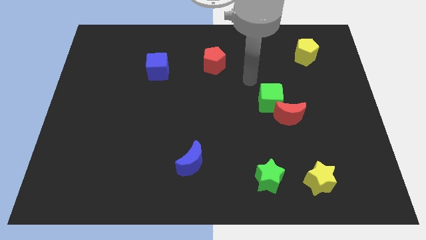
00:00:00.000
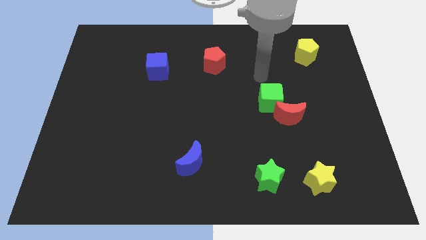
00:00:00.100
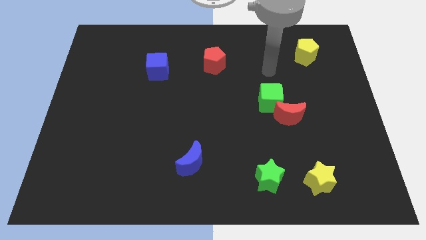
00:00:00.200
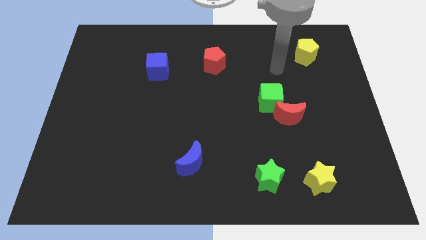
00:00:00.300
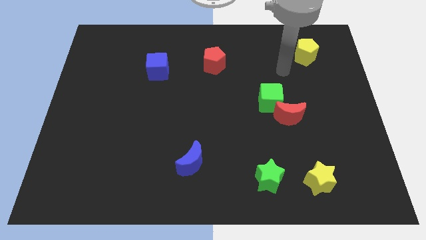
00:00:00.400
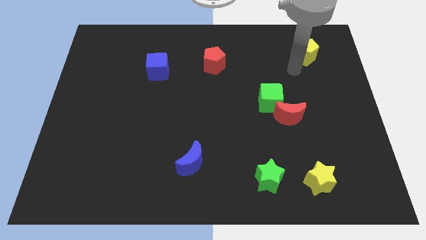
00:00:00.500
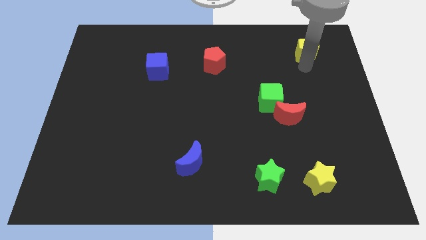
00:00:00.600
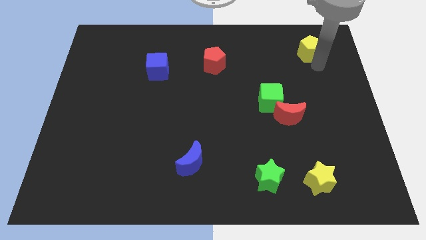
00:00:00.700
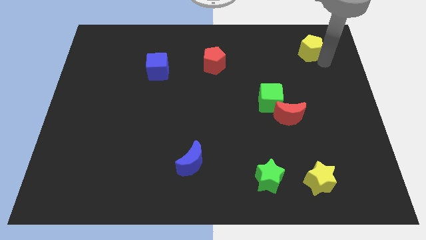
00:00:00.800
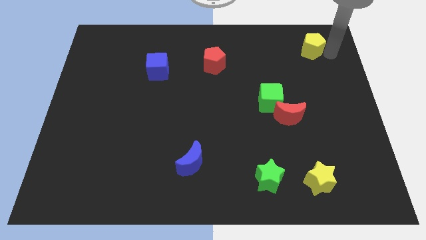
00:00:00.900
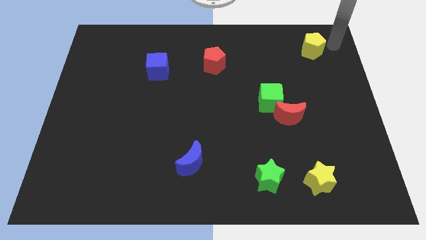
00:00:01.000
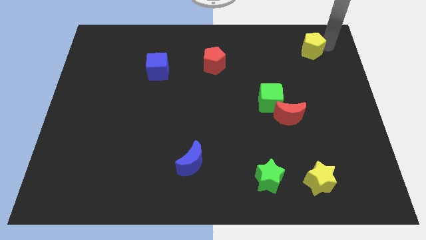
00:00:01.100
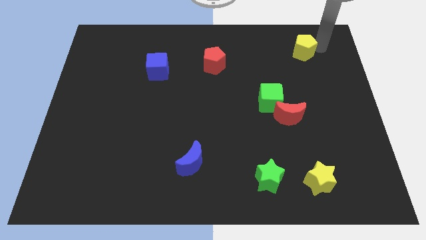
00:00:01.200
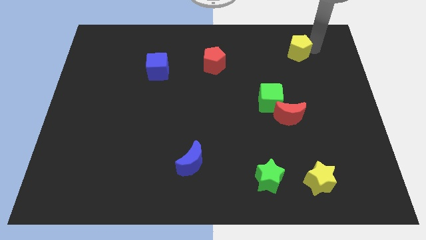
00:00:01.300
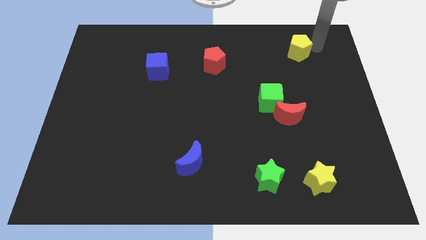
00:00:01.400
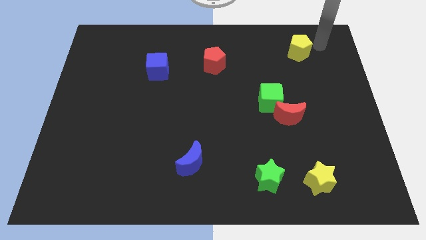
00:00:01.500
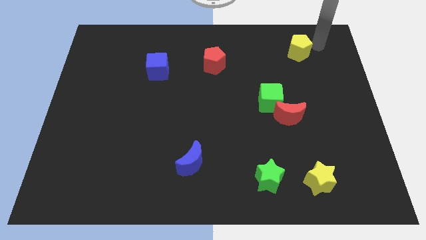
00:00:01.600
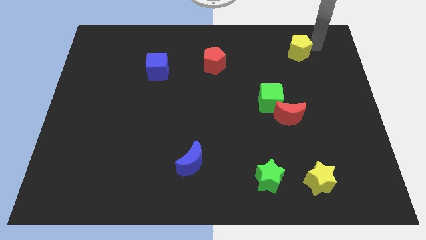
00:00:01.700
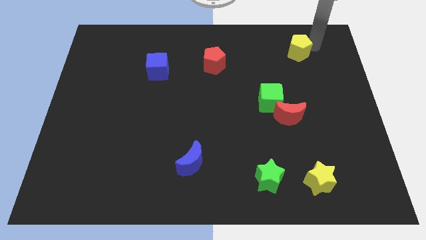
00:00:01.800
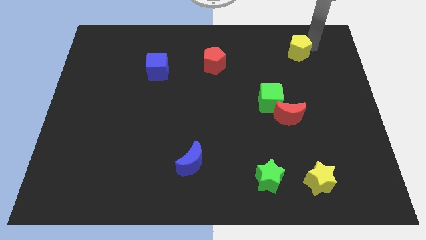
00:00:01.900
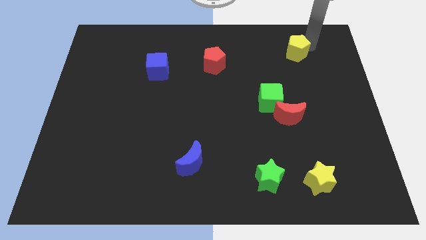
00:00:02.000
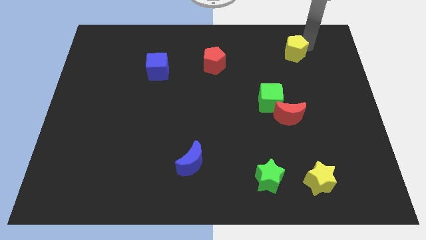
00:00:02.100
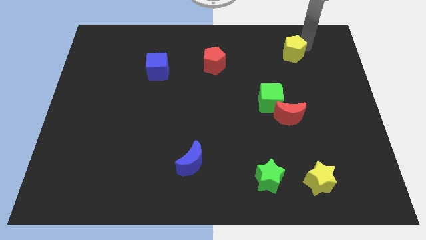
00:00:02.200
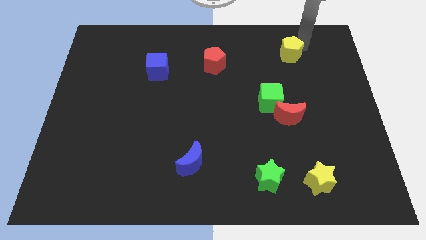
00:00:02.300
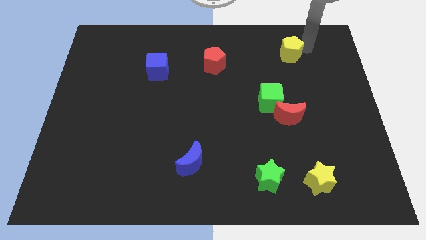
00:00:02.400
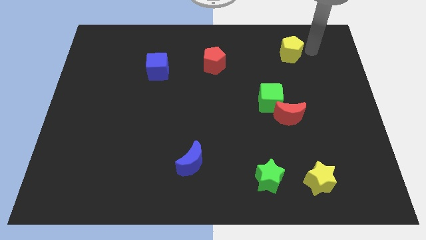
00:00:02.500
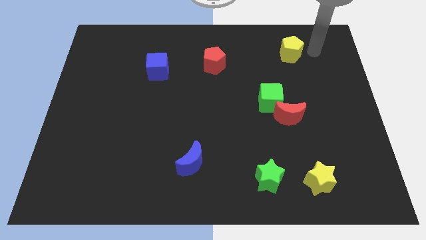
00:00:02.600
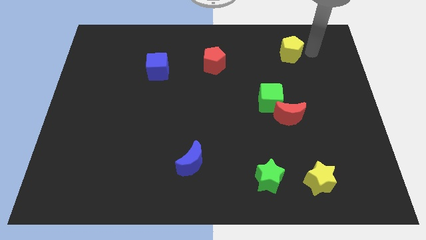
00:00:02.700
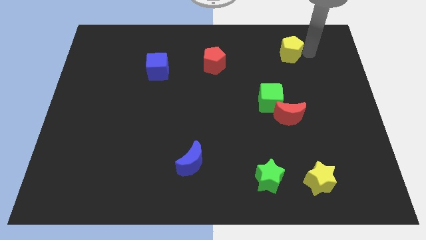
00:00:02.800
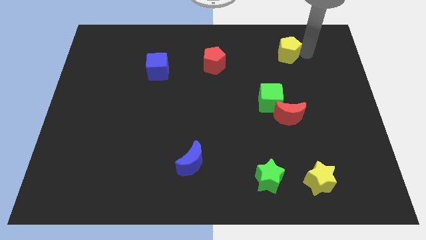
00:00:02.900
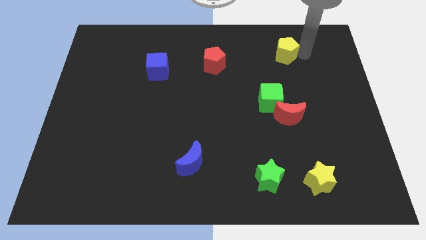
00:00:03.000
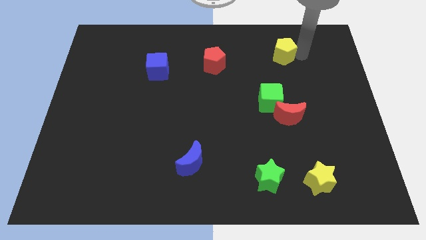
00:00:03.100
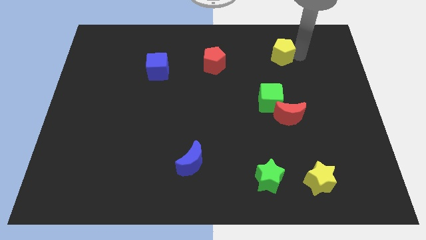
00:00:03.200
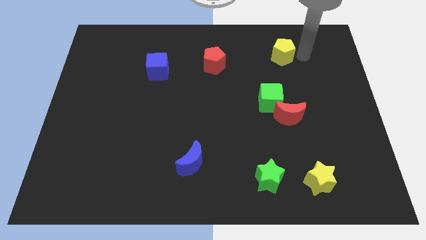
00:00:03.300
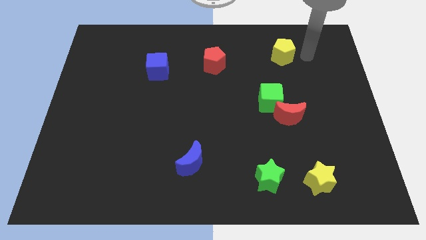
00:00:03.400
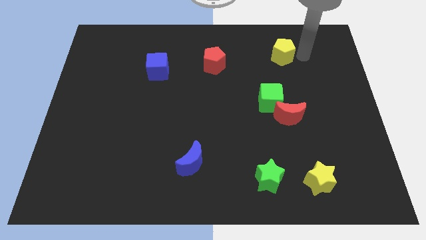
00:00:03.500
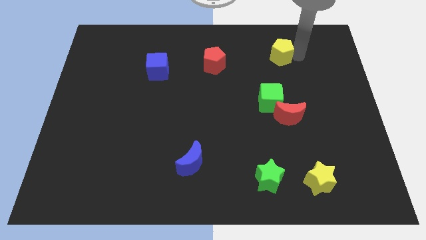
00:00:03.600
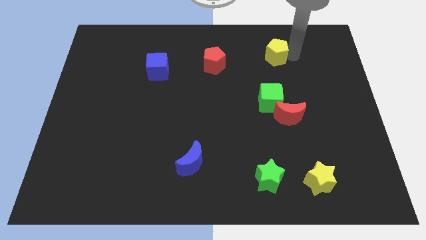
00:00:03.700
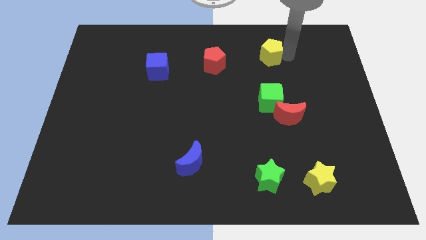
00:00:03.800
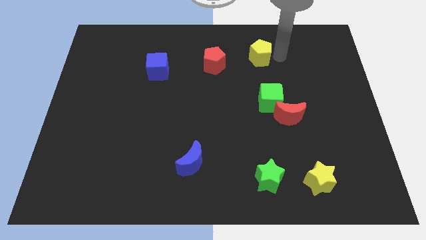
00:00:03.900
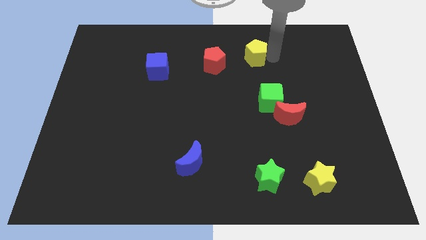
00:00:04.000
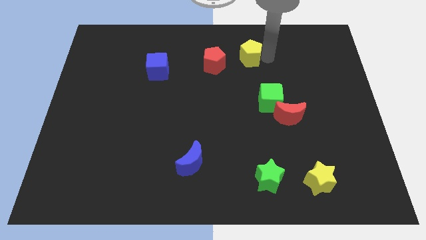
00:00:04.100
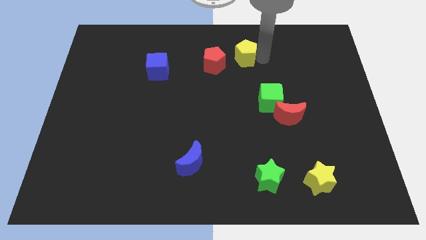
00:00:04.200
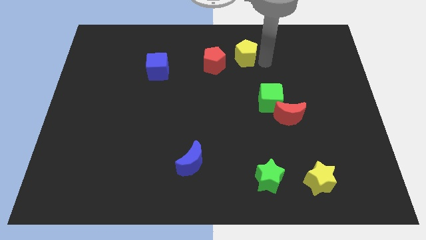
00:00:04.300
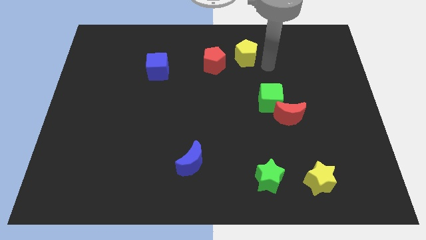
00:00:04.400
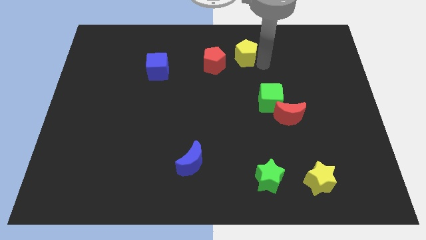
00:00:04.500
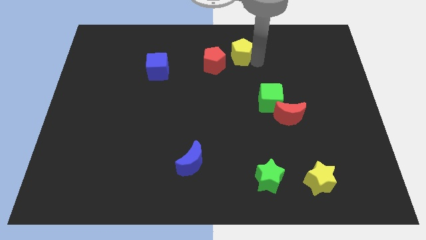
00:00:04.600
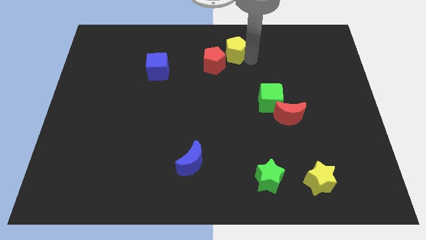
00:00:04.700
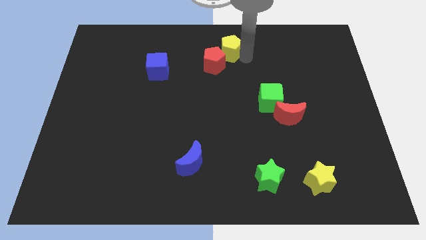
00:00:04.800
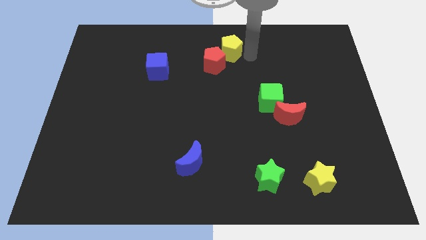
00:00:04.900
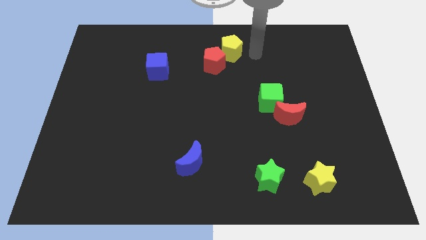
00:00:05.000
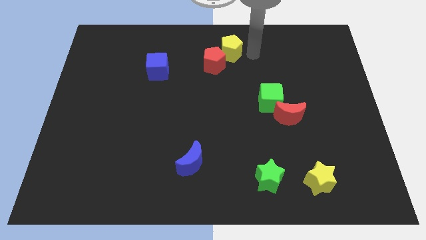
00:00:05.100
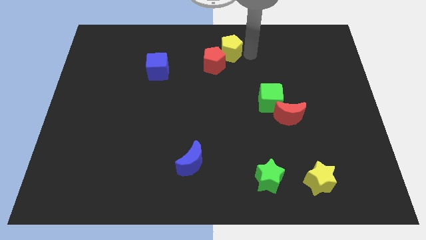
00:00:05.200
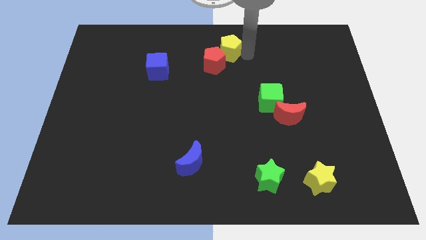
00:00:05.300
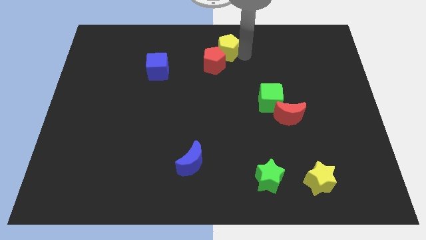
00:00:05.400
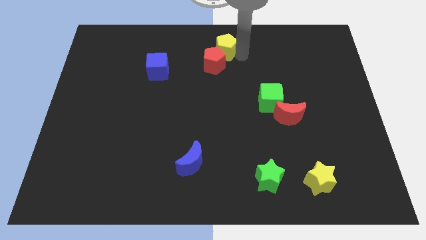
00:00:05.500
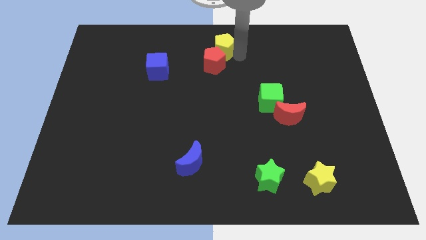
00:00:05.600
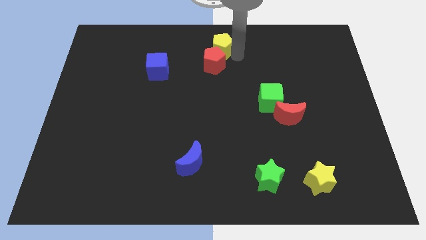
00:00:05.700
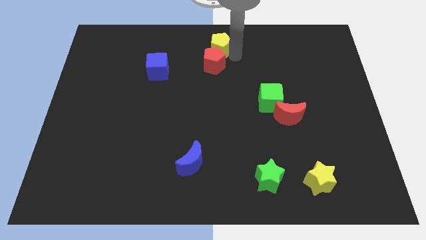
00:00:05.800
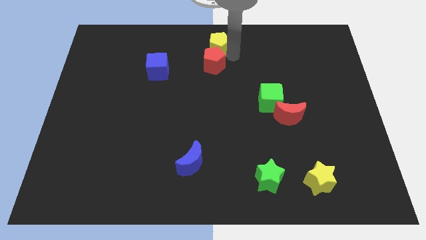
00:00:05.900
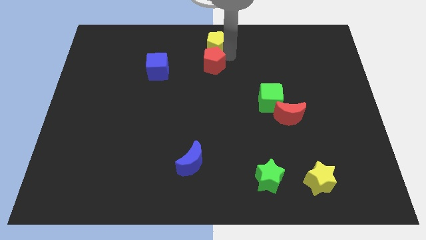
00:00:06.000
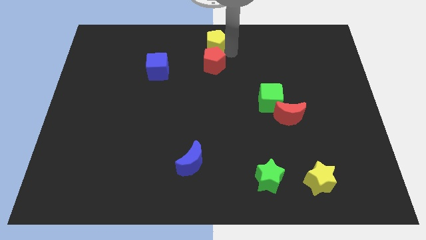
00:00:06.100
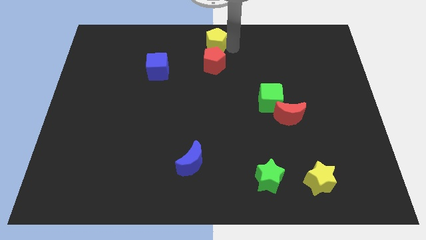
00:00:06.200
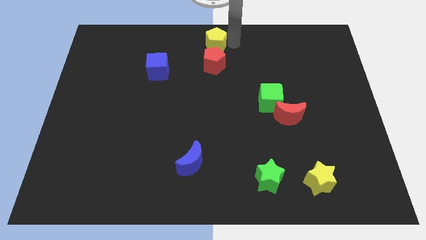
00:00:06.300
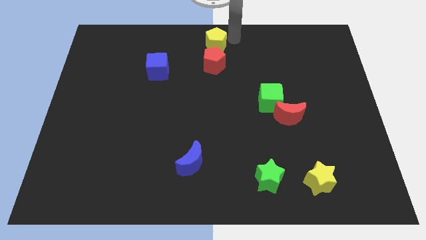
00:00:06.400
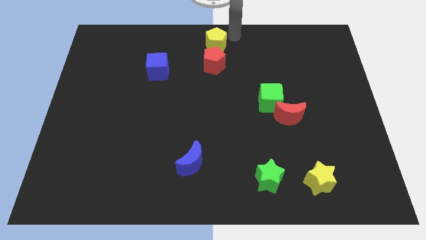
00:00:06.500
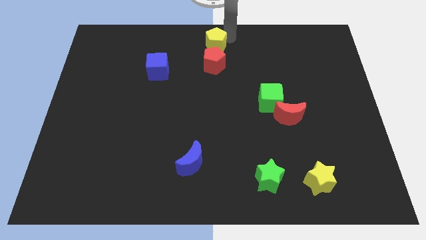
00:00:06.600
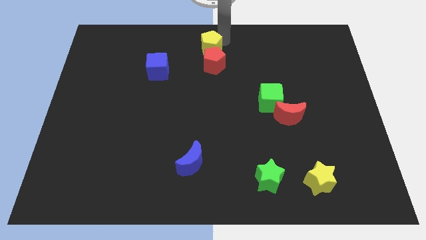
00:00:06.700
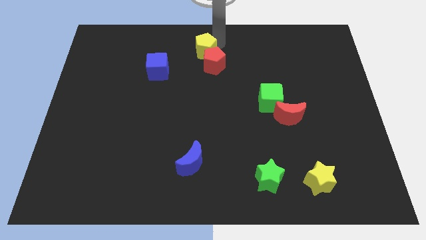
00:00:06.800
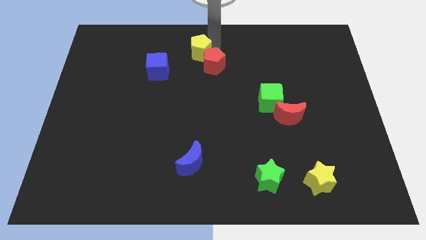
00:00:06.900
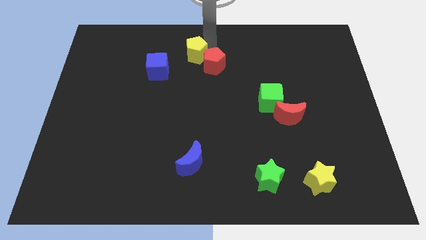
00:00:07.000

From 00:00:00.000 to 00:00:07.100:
move the yellow pentagon left of the red pentagon

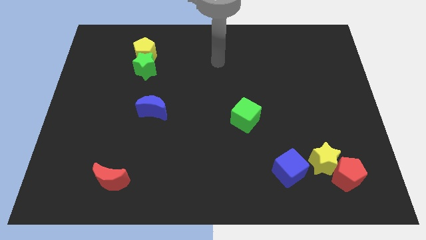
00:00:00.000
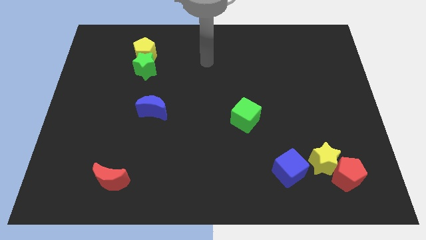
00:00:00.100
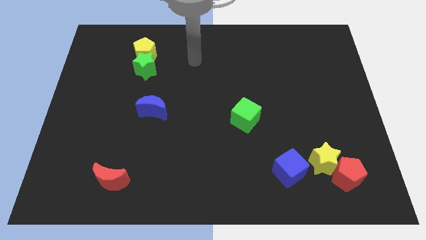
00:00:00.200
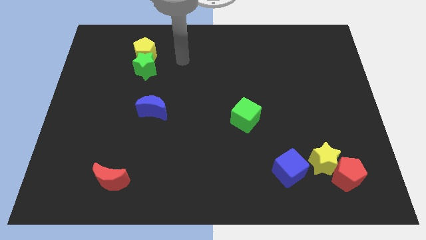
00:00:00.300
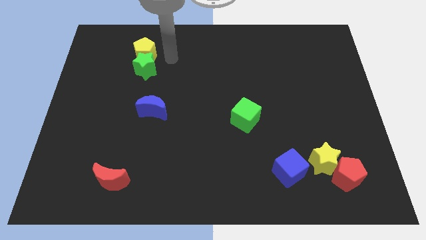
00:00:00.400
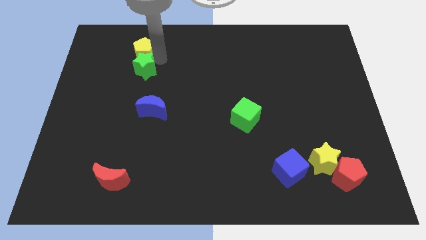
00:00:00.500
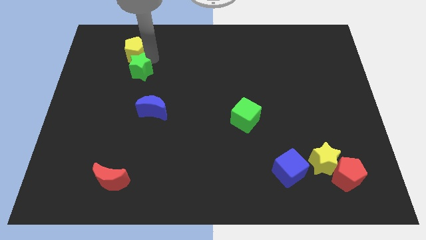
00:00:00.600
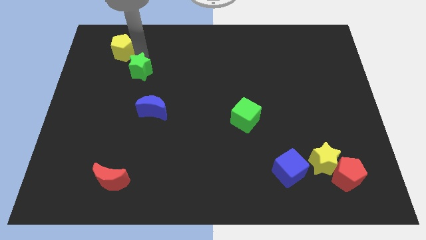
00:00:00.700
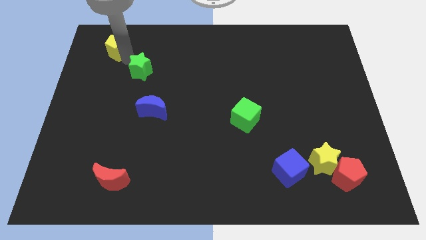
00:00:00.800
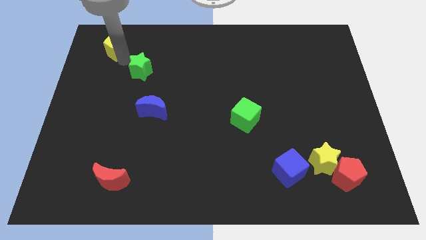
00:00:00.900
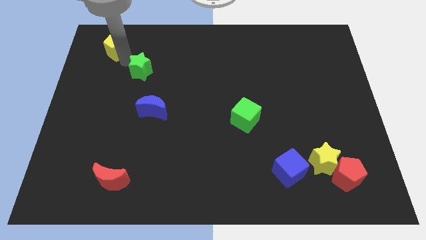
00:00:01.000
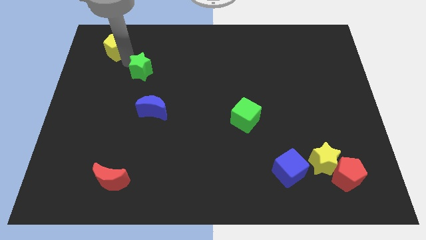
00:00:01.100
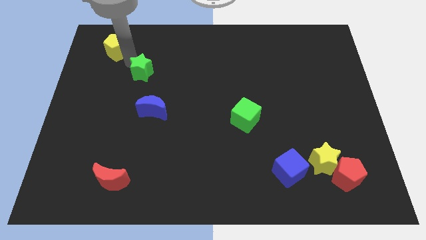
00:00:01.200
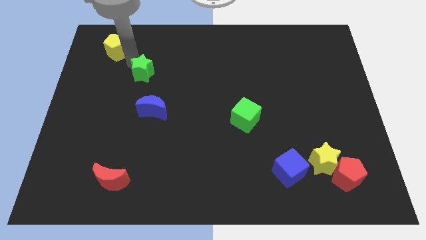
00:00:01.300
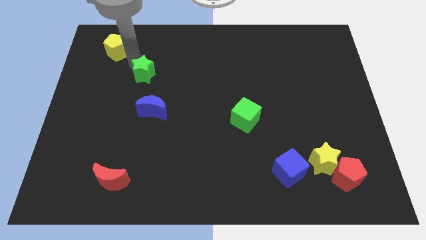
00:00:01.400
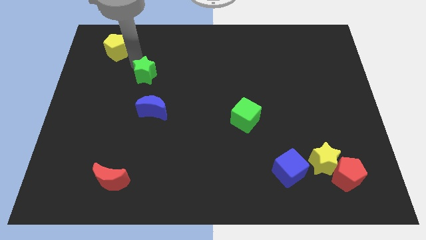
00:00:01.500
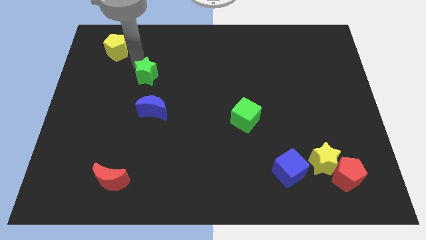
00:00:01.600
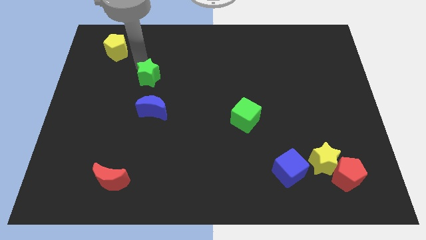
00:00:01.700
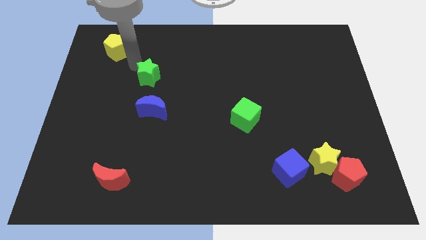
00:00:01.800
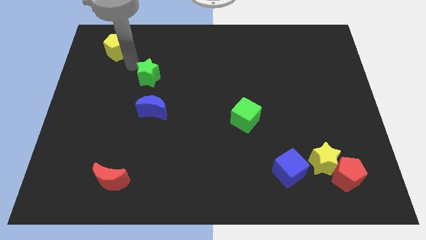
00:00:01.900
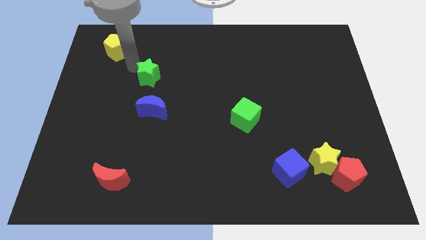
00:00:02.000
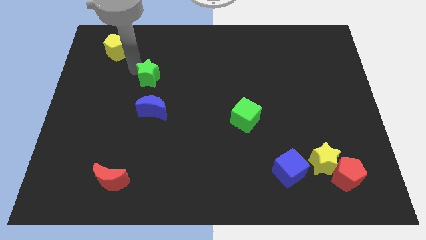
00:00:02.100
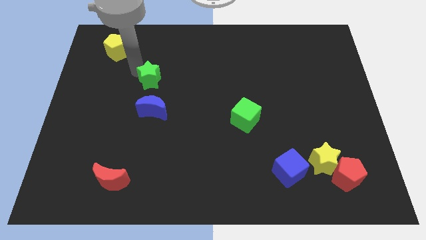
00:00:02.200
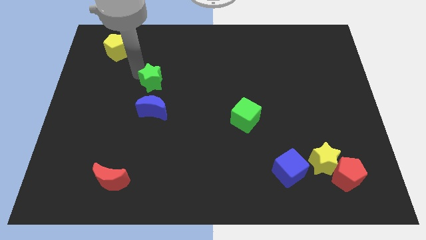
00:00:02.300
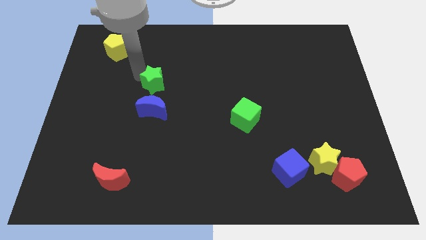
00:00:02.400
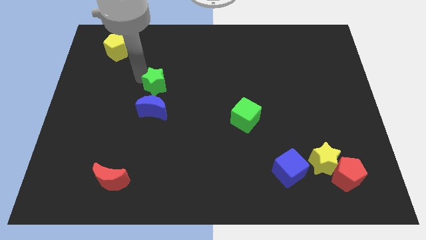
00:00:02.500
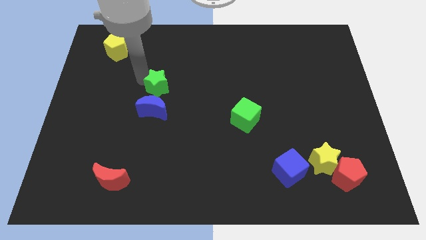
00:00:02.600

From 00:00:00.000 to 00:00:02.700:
slide the green star diagonally up and to the right of the blue moon
